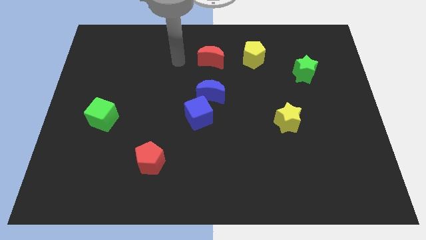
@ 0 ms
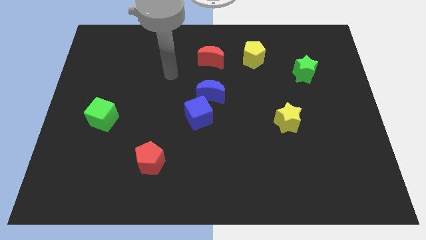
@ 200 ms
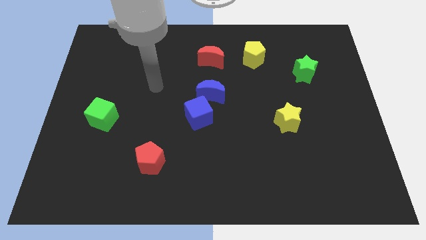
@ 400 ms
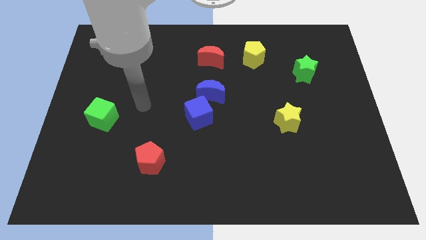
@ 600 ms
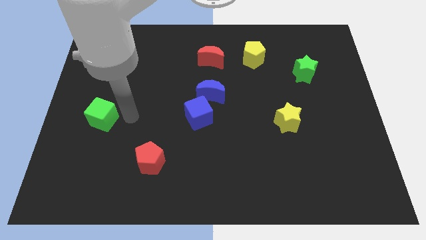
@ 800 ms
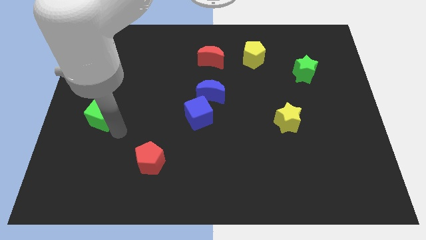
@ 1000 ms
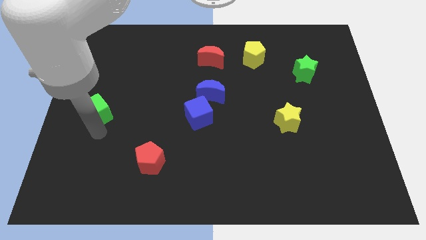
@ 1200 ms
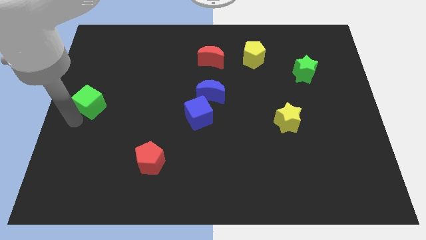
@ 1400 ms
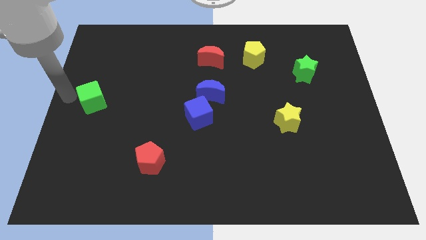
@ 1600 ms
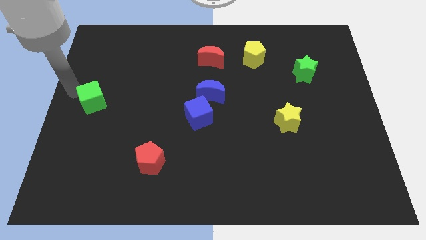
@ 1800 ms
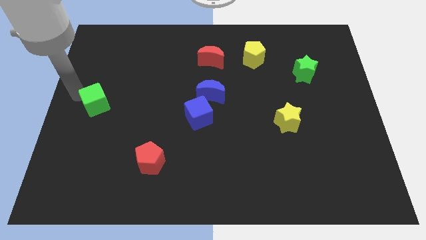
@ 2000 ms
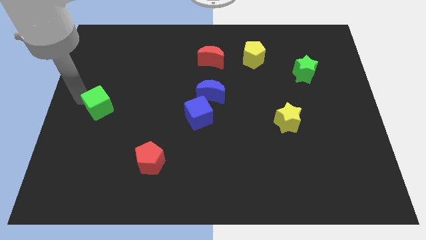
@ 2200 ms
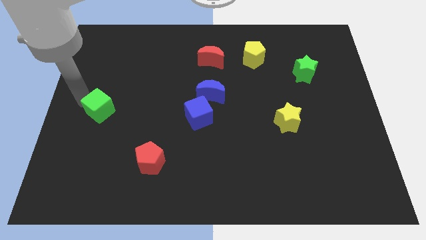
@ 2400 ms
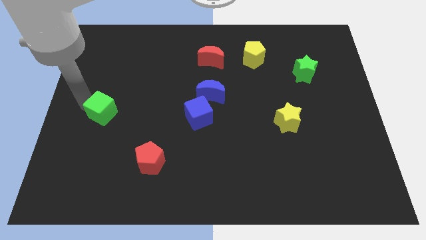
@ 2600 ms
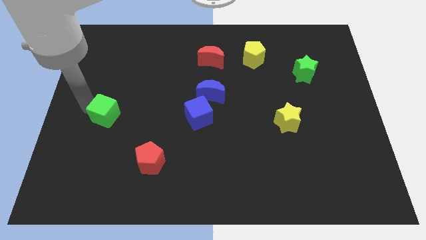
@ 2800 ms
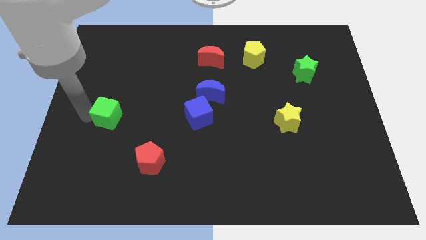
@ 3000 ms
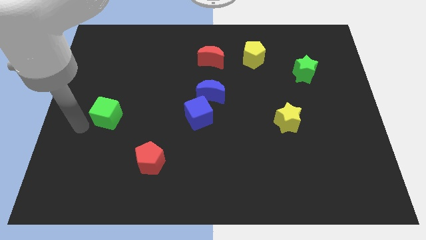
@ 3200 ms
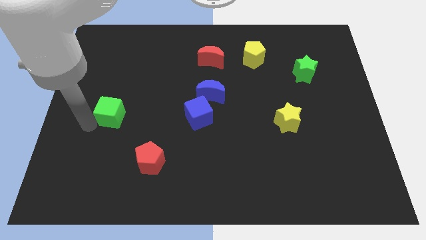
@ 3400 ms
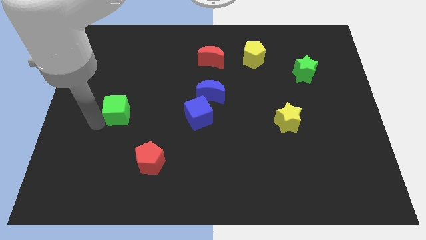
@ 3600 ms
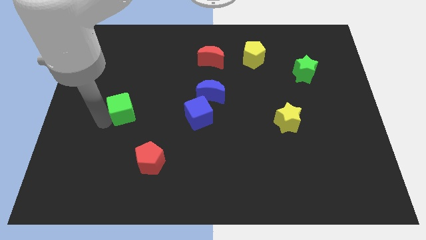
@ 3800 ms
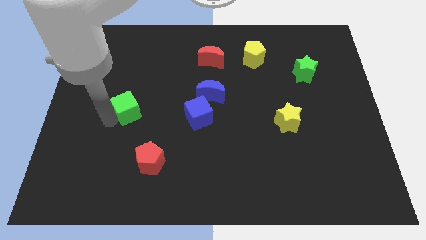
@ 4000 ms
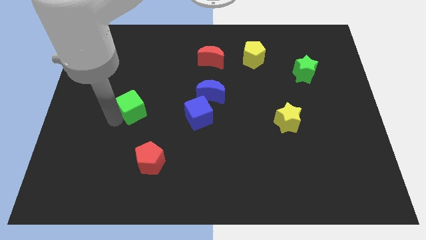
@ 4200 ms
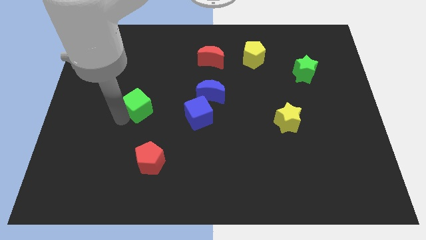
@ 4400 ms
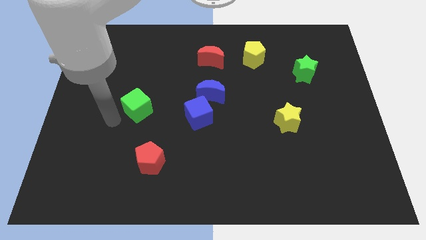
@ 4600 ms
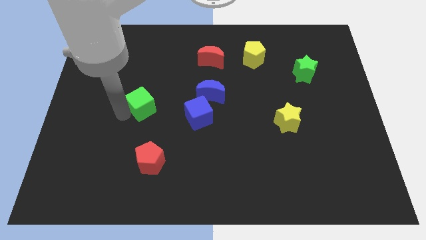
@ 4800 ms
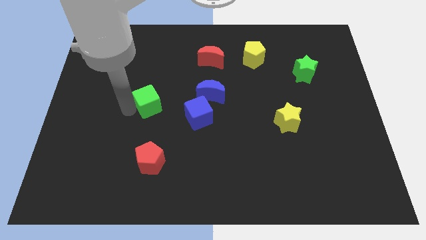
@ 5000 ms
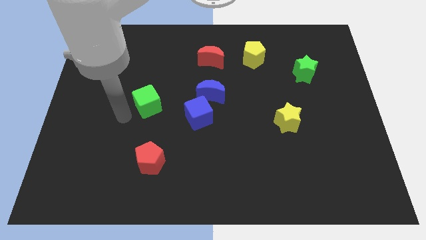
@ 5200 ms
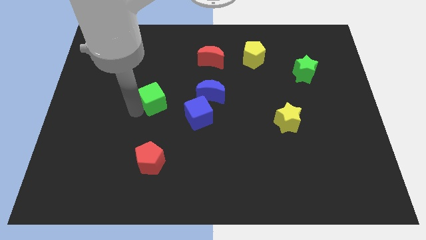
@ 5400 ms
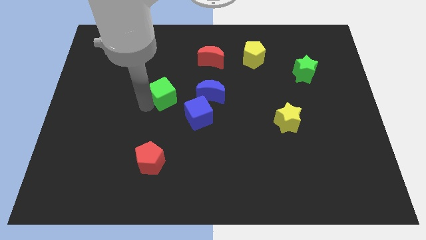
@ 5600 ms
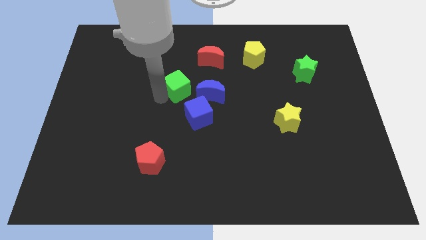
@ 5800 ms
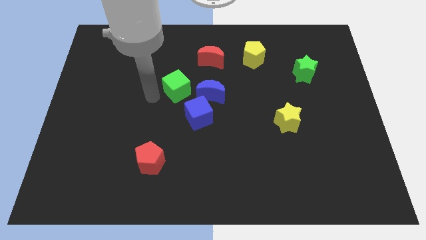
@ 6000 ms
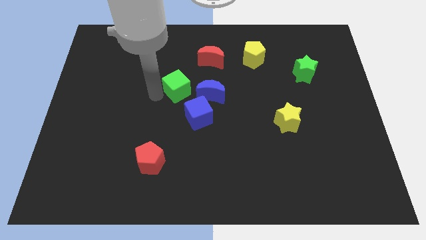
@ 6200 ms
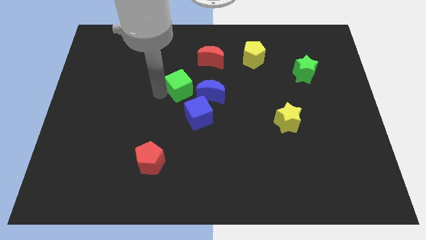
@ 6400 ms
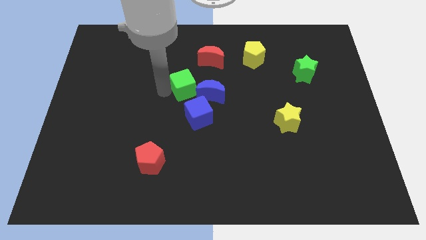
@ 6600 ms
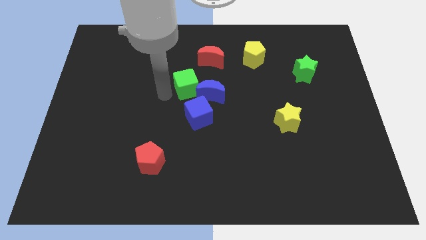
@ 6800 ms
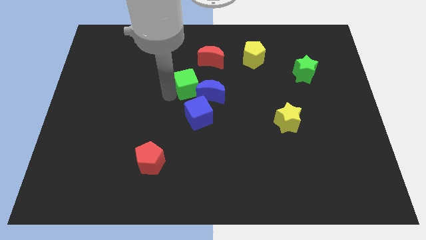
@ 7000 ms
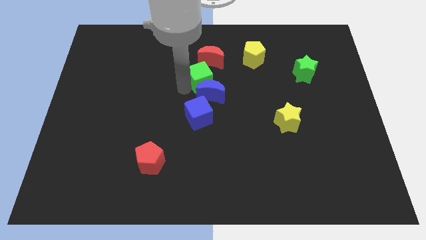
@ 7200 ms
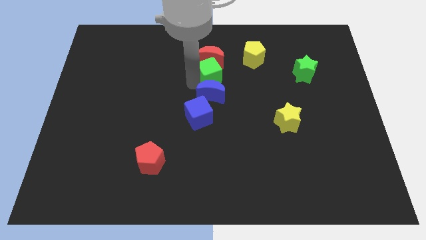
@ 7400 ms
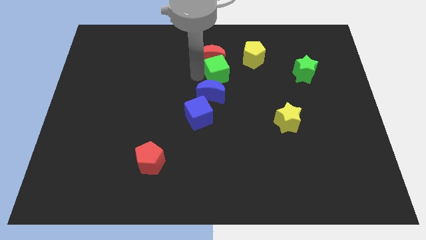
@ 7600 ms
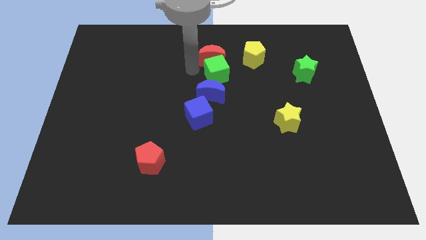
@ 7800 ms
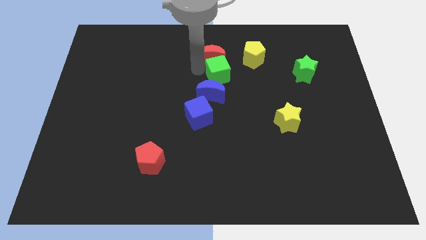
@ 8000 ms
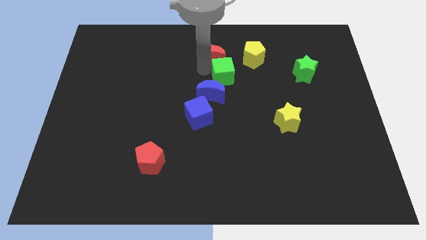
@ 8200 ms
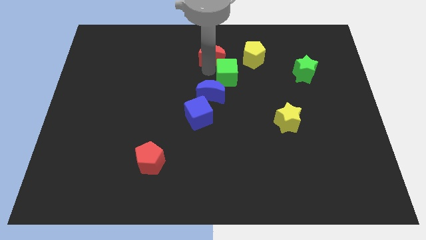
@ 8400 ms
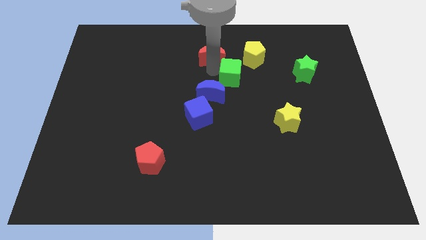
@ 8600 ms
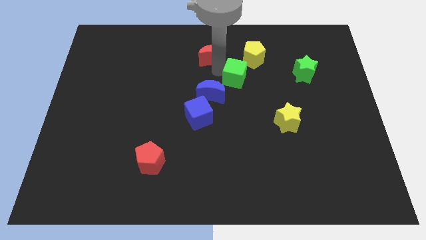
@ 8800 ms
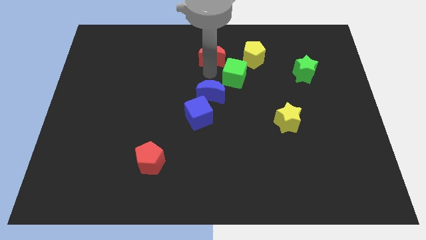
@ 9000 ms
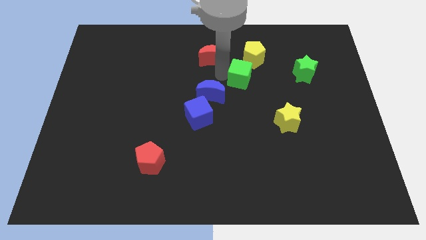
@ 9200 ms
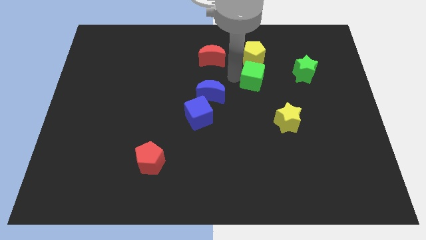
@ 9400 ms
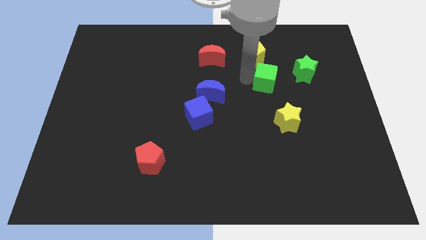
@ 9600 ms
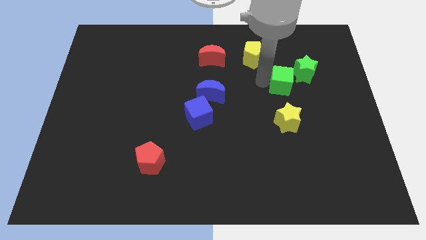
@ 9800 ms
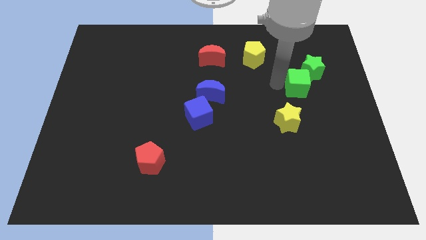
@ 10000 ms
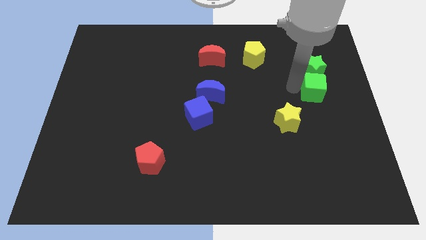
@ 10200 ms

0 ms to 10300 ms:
push the green cube diagonally down and to the right of the green star

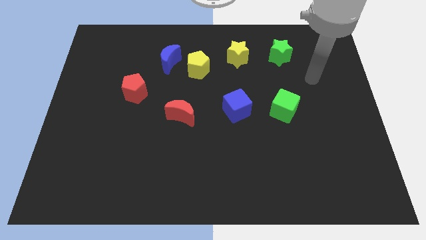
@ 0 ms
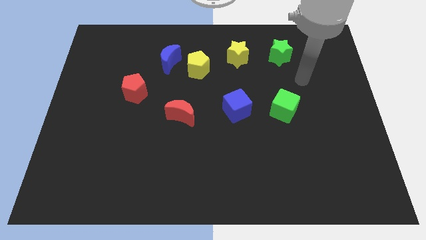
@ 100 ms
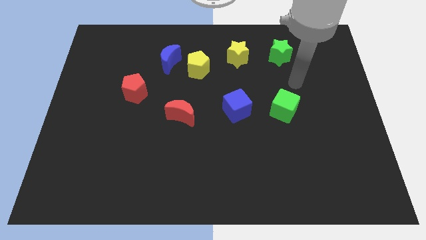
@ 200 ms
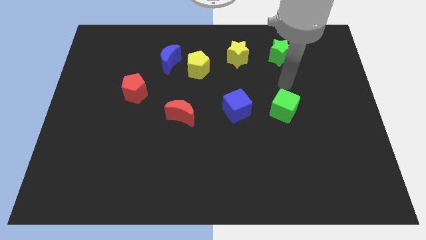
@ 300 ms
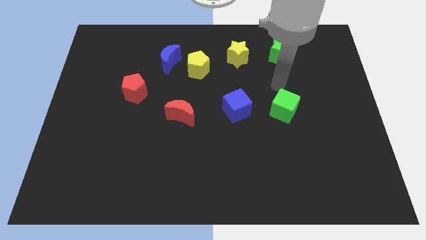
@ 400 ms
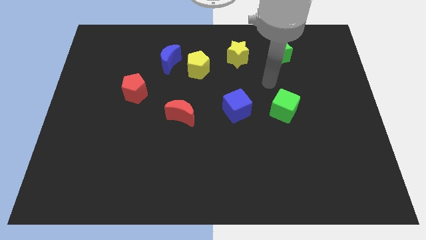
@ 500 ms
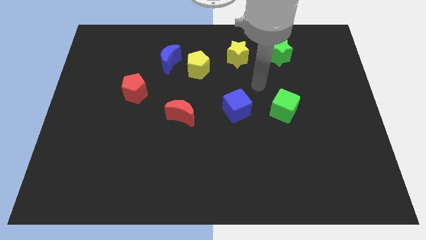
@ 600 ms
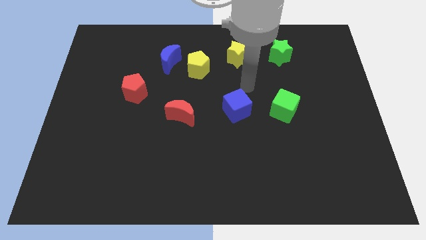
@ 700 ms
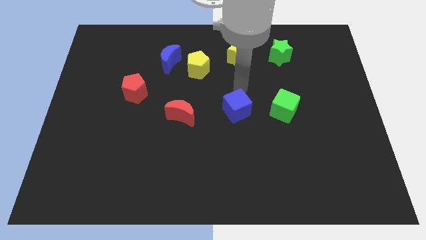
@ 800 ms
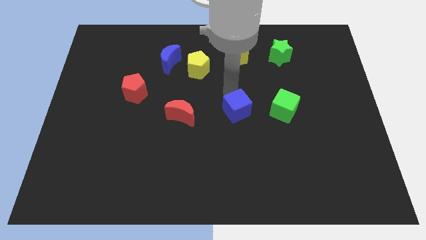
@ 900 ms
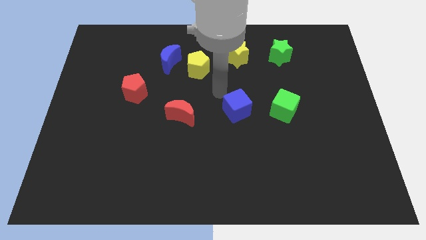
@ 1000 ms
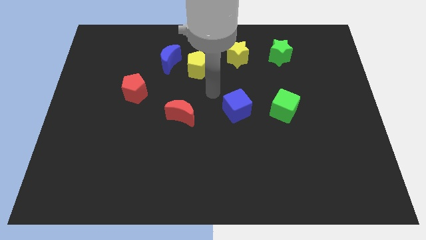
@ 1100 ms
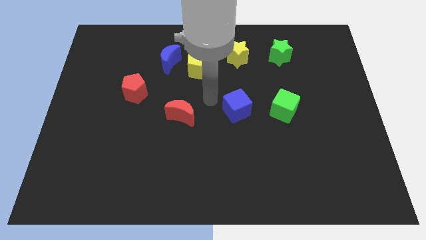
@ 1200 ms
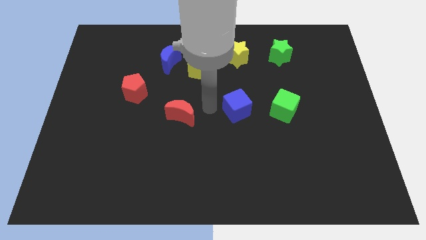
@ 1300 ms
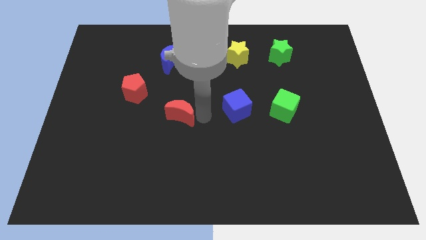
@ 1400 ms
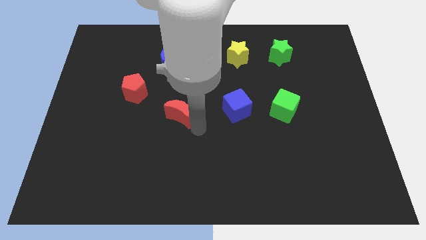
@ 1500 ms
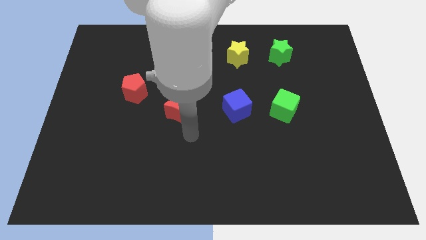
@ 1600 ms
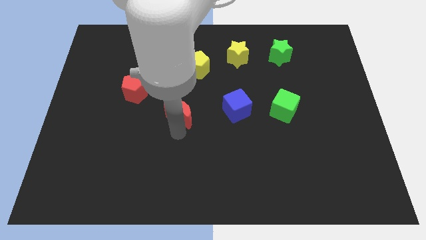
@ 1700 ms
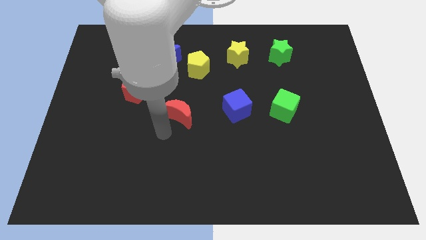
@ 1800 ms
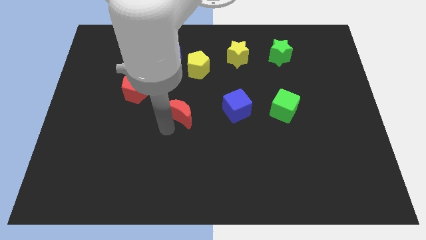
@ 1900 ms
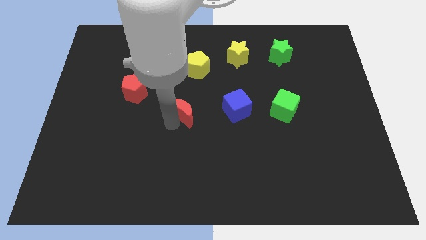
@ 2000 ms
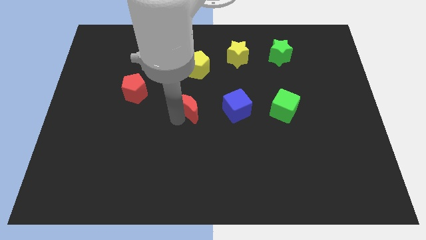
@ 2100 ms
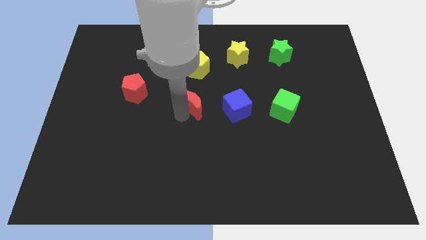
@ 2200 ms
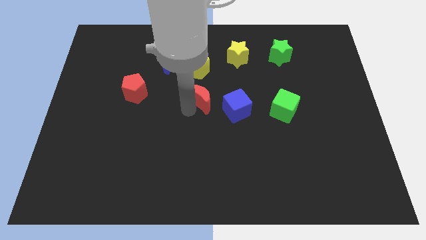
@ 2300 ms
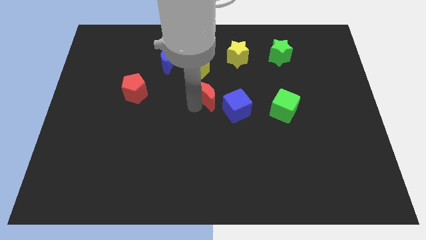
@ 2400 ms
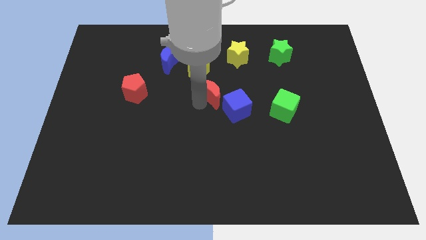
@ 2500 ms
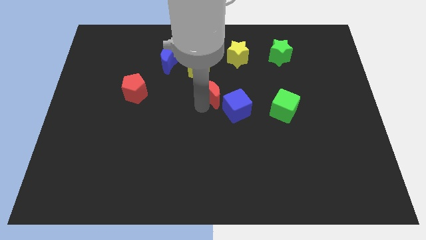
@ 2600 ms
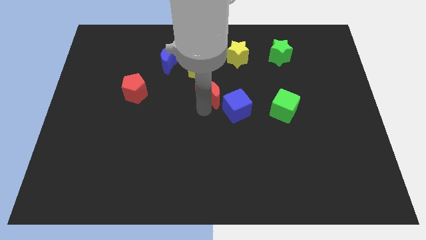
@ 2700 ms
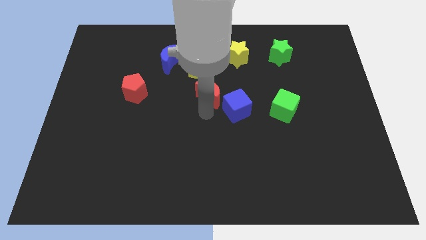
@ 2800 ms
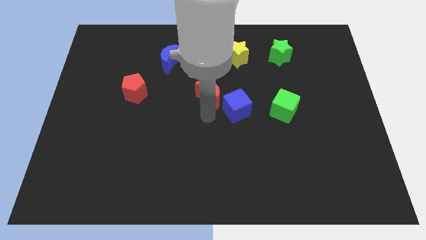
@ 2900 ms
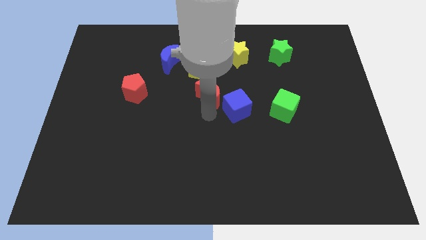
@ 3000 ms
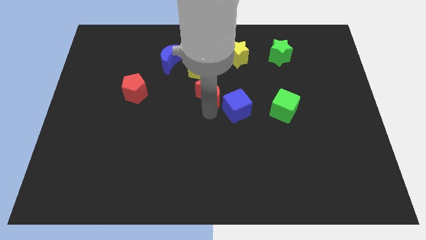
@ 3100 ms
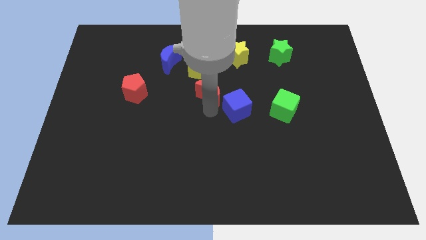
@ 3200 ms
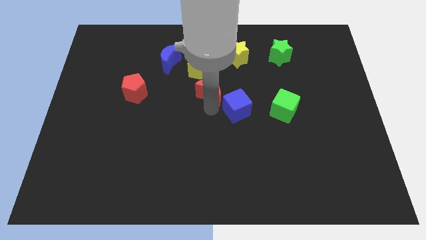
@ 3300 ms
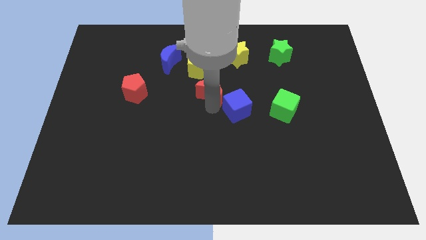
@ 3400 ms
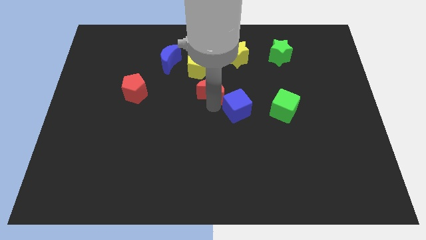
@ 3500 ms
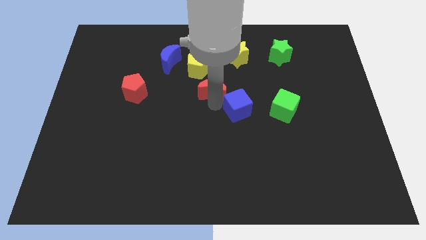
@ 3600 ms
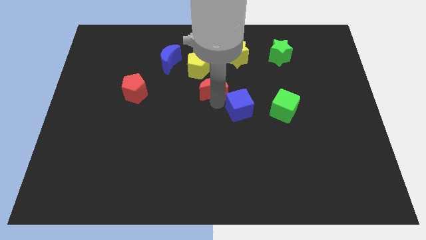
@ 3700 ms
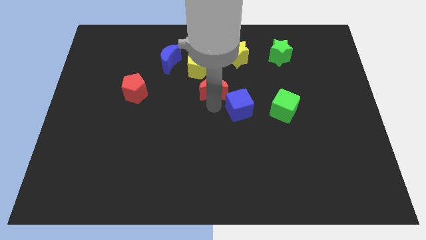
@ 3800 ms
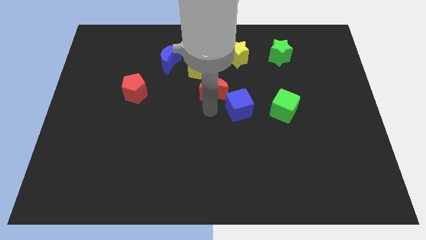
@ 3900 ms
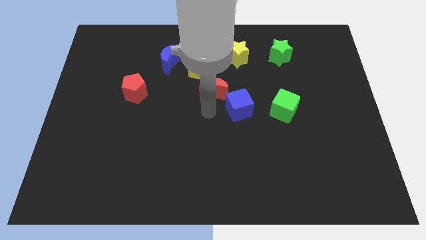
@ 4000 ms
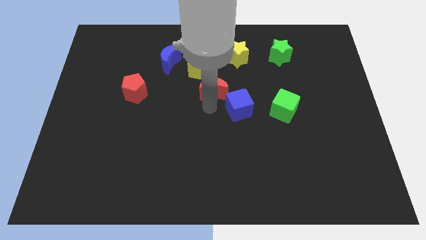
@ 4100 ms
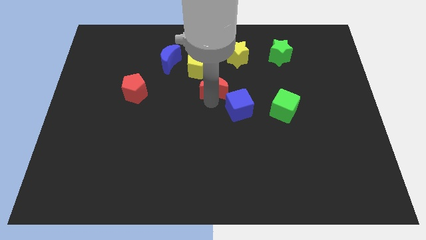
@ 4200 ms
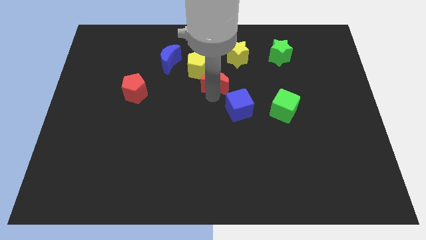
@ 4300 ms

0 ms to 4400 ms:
move the red moon to the bottom left side of the yellow star
